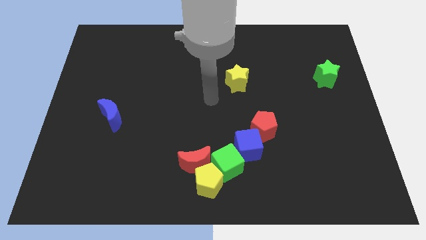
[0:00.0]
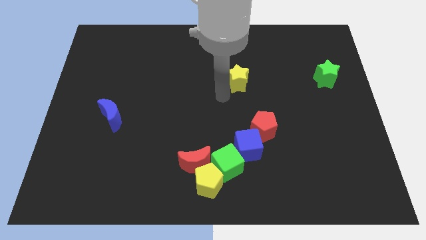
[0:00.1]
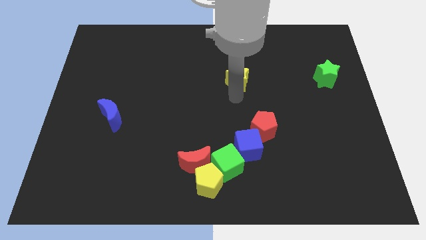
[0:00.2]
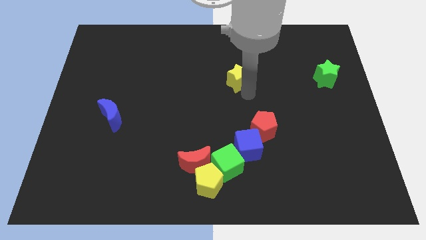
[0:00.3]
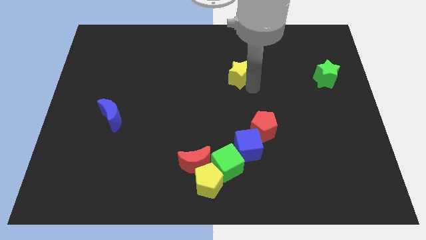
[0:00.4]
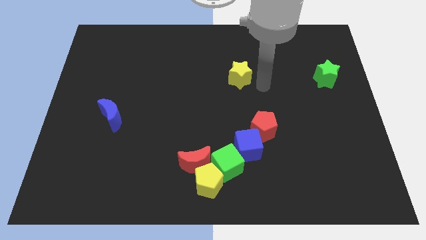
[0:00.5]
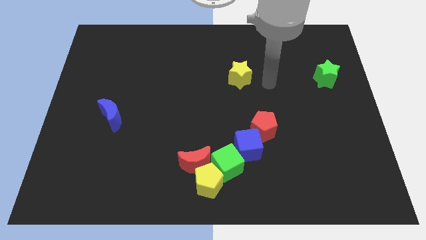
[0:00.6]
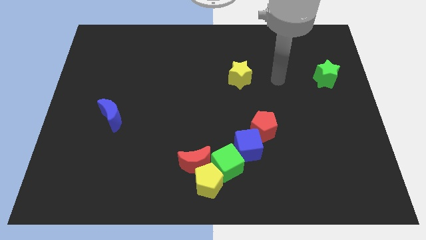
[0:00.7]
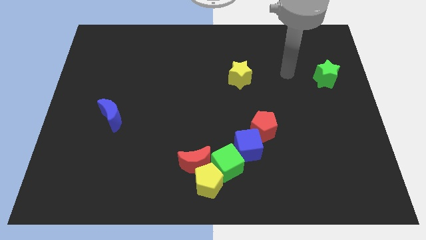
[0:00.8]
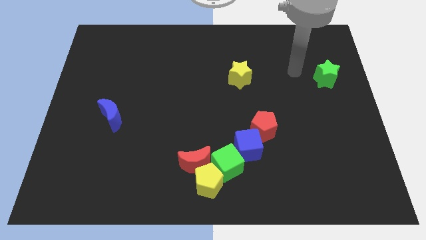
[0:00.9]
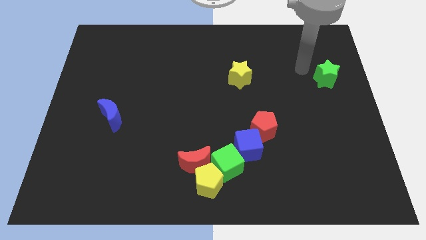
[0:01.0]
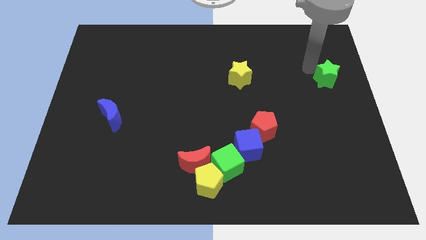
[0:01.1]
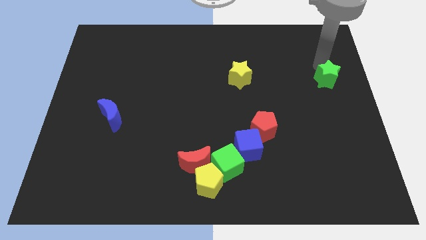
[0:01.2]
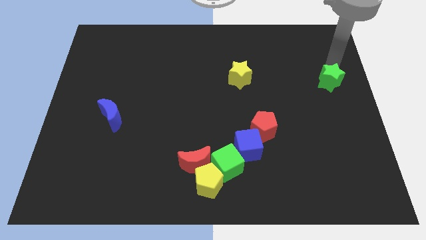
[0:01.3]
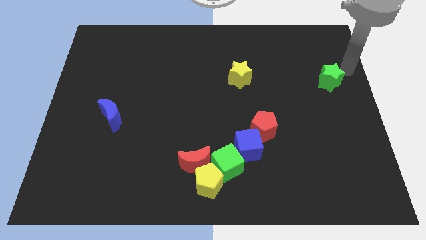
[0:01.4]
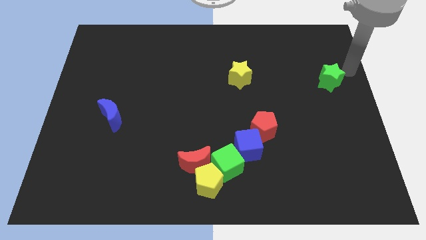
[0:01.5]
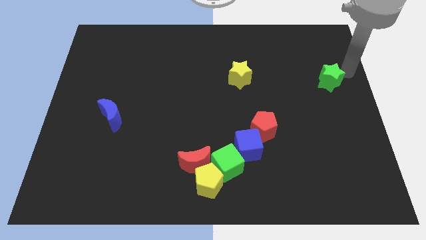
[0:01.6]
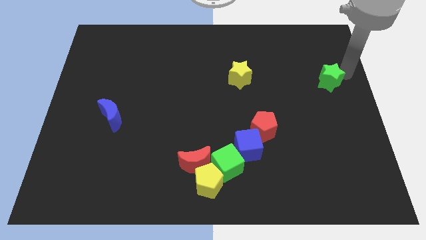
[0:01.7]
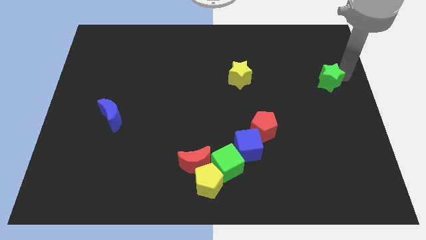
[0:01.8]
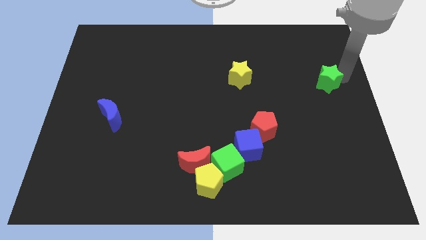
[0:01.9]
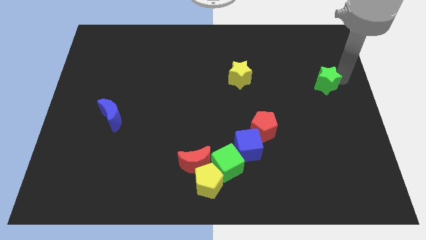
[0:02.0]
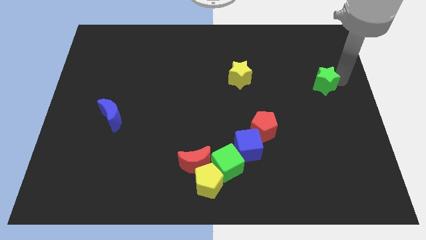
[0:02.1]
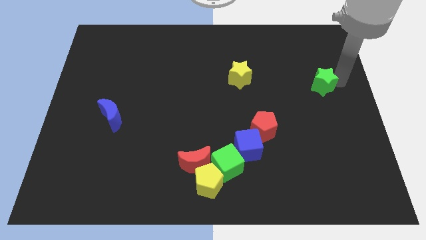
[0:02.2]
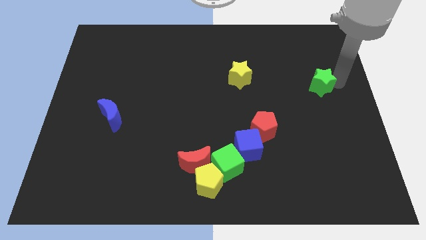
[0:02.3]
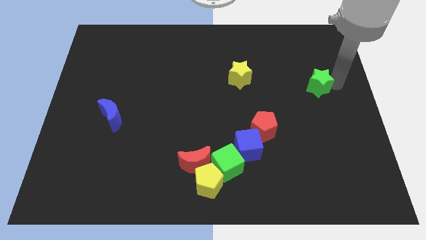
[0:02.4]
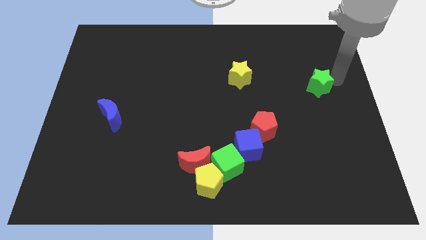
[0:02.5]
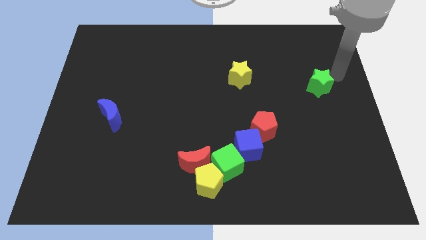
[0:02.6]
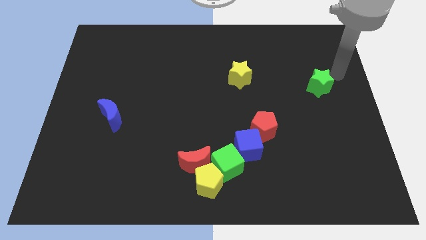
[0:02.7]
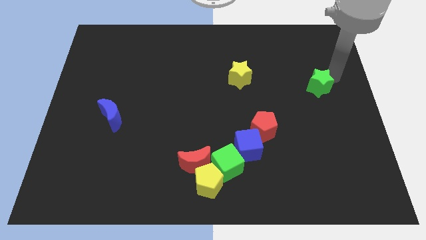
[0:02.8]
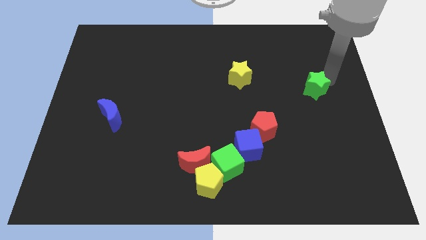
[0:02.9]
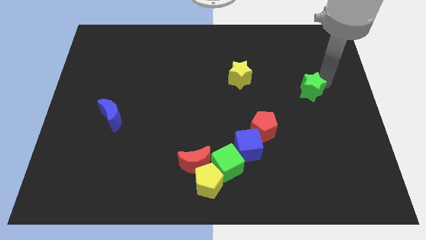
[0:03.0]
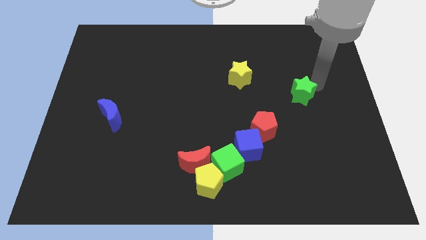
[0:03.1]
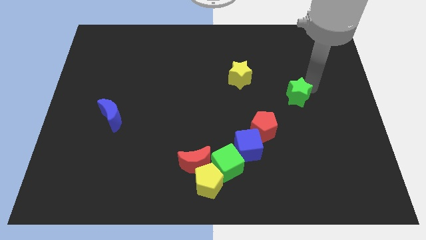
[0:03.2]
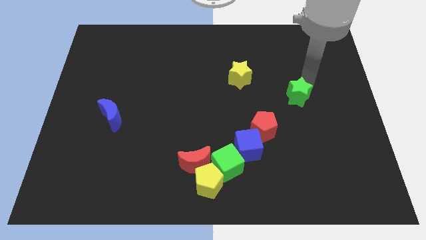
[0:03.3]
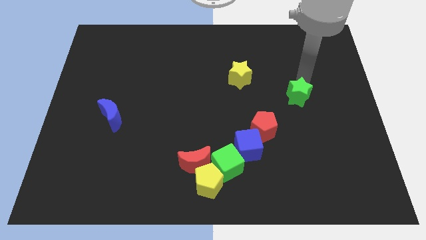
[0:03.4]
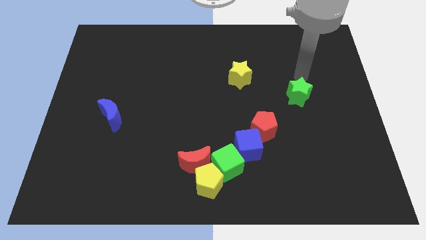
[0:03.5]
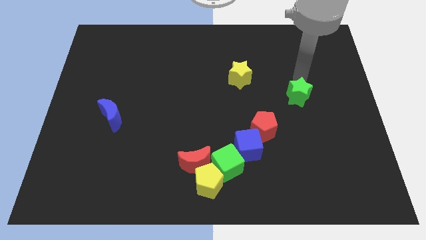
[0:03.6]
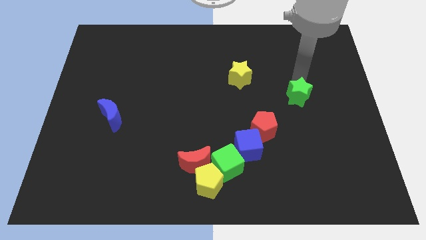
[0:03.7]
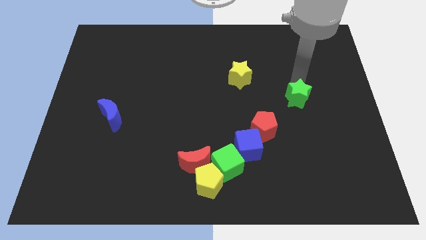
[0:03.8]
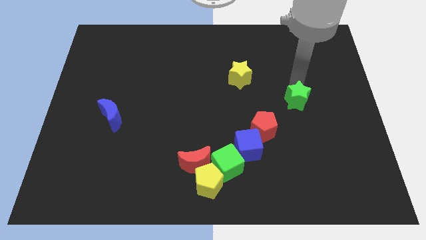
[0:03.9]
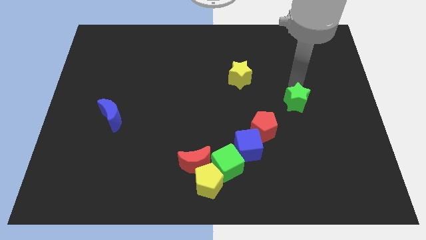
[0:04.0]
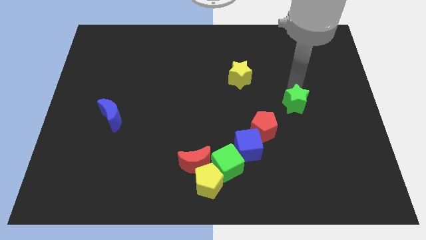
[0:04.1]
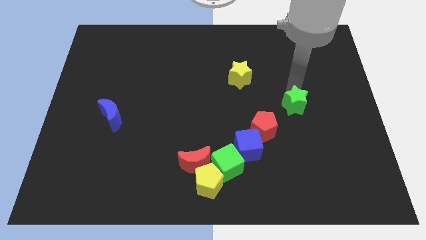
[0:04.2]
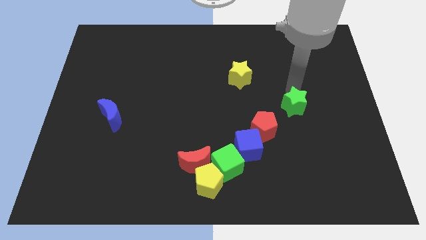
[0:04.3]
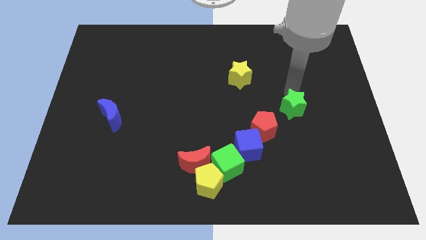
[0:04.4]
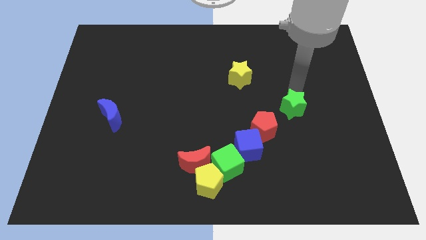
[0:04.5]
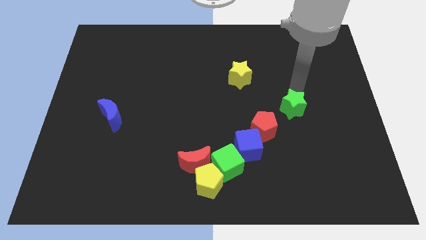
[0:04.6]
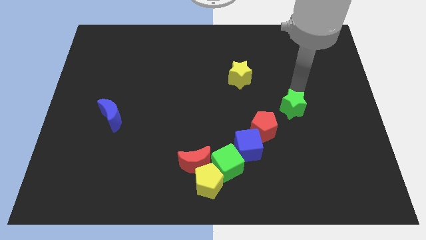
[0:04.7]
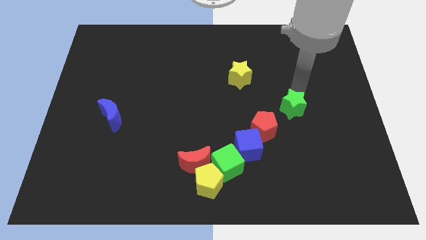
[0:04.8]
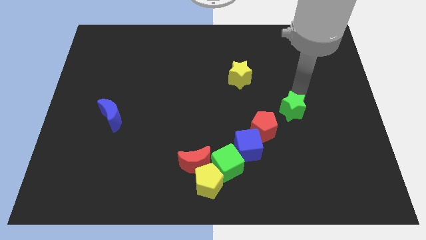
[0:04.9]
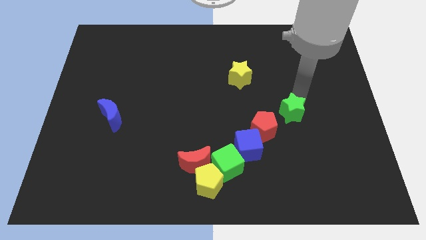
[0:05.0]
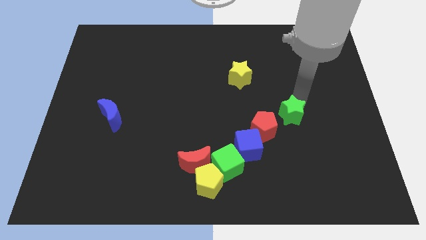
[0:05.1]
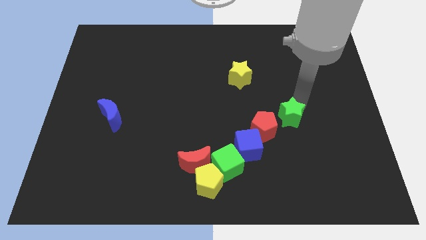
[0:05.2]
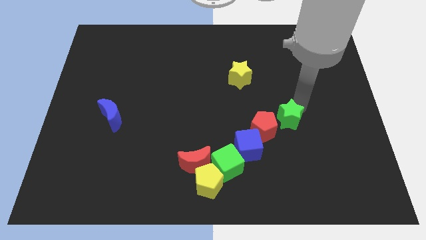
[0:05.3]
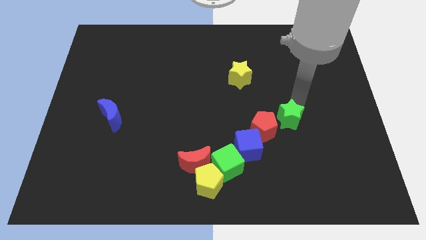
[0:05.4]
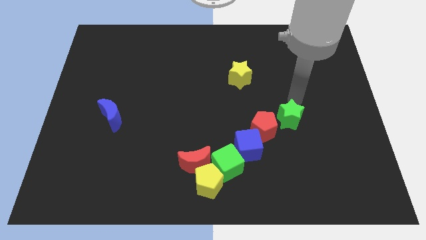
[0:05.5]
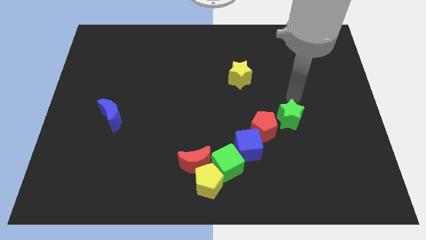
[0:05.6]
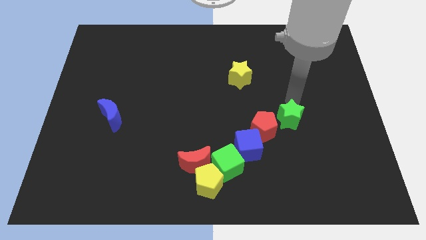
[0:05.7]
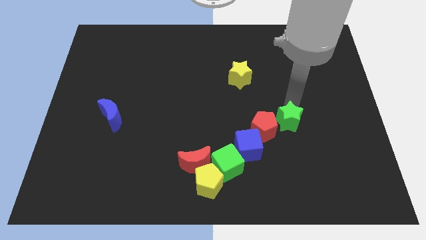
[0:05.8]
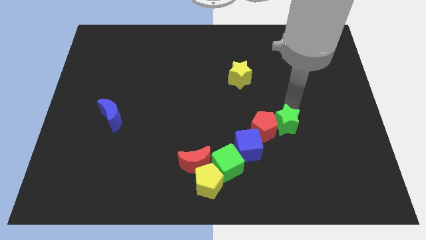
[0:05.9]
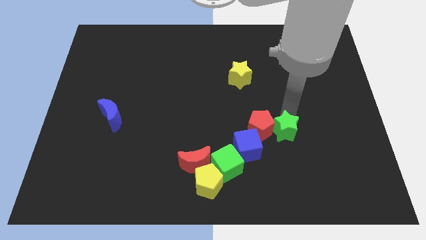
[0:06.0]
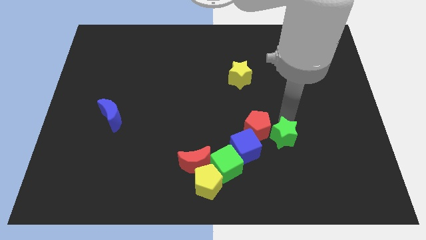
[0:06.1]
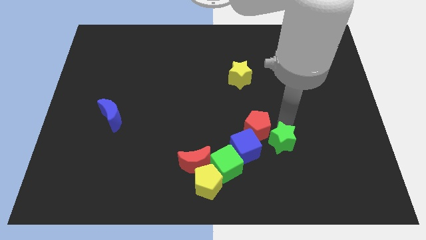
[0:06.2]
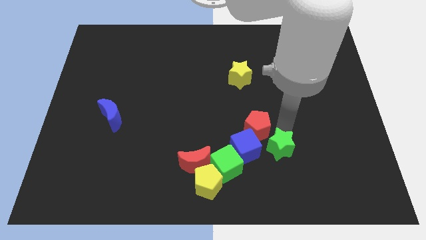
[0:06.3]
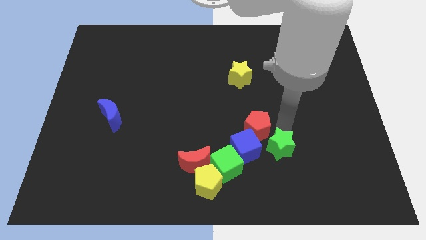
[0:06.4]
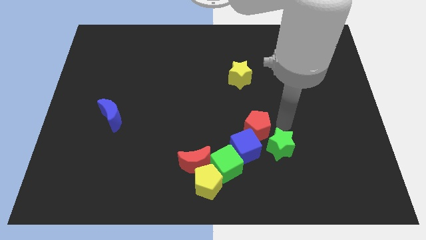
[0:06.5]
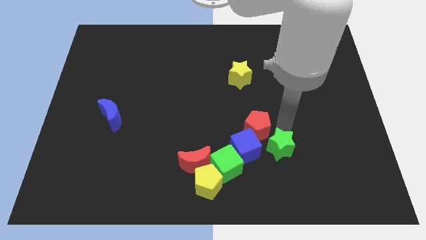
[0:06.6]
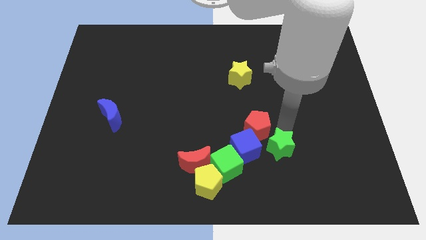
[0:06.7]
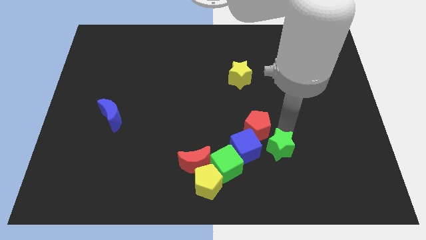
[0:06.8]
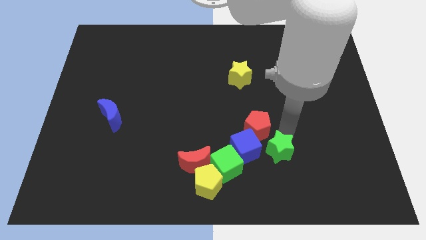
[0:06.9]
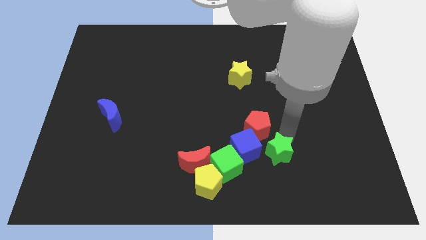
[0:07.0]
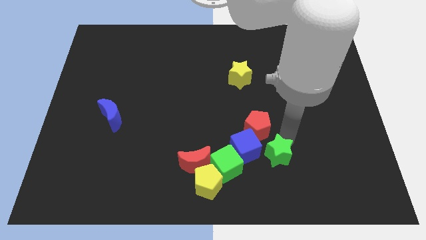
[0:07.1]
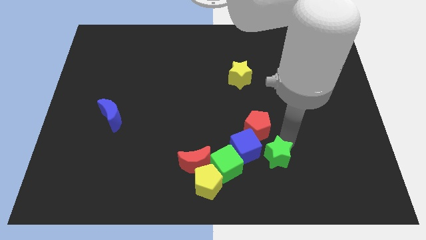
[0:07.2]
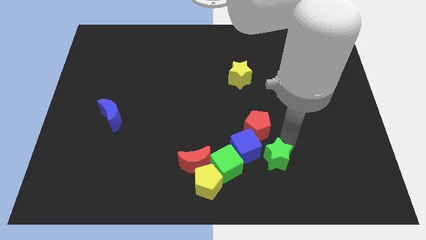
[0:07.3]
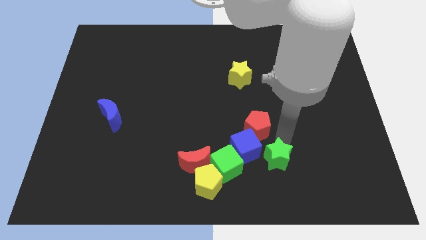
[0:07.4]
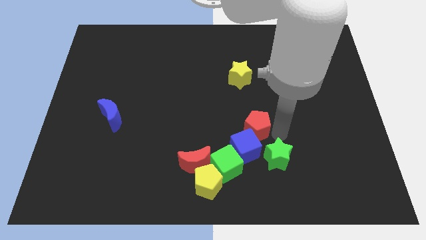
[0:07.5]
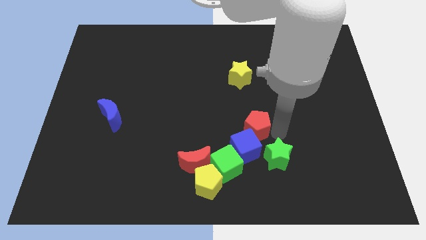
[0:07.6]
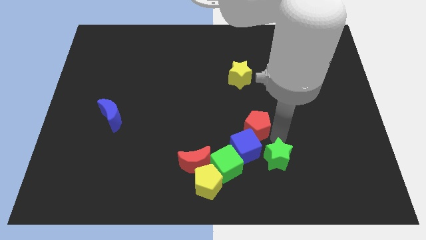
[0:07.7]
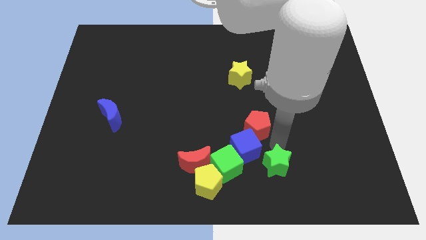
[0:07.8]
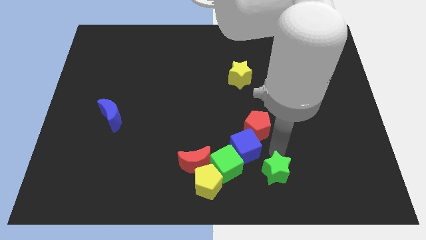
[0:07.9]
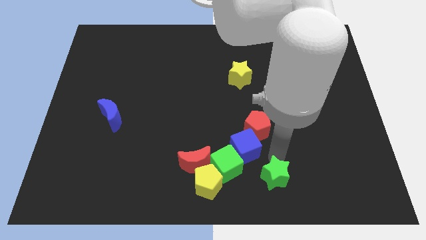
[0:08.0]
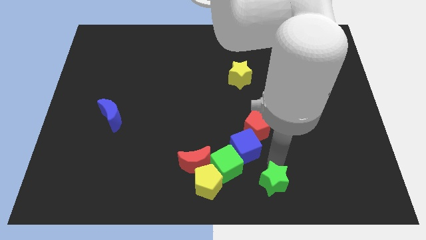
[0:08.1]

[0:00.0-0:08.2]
put the green star to the bottom side
